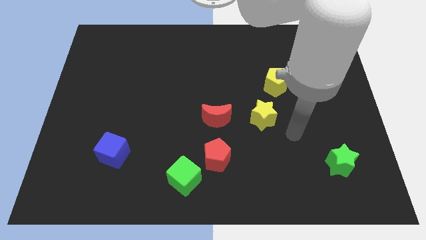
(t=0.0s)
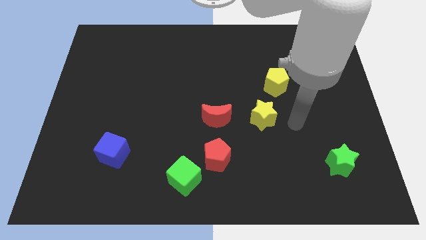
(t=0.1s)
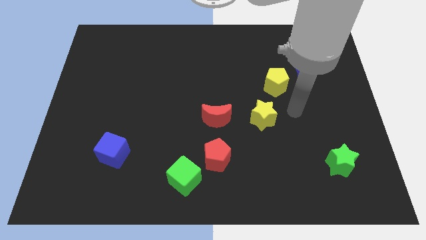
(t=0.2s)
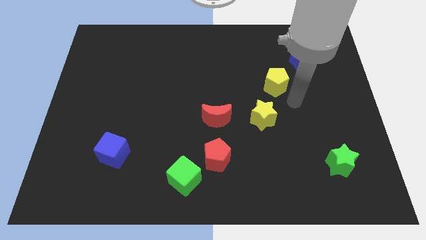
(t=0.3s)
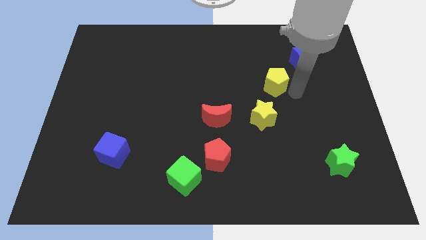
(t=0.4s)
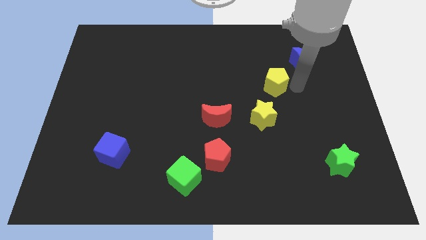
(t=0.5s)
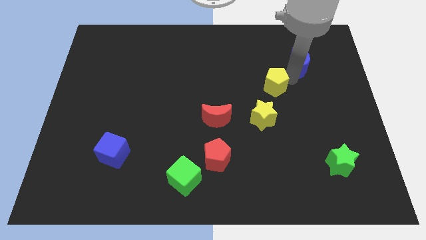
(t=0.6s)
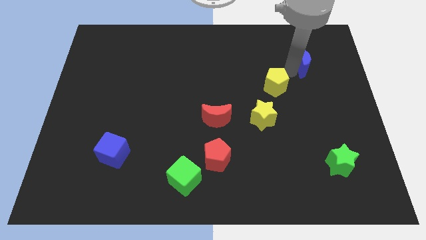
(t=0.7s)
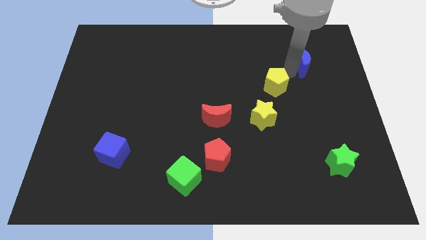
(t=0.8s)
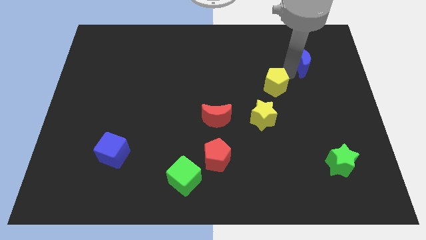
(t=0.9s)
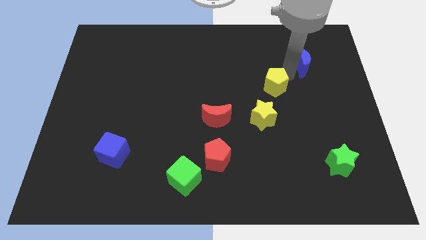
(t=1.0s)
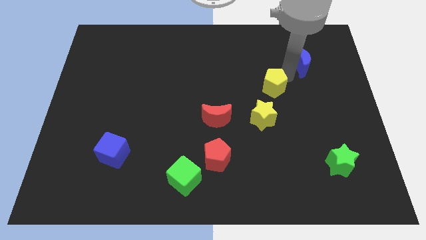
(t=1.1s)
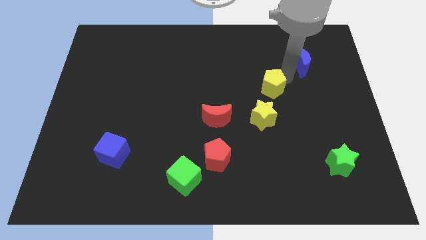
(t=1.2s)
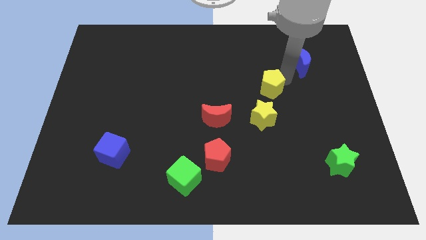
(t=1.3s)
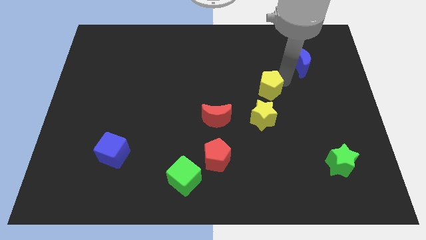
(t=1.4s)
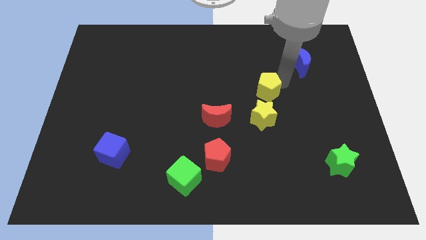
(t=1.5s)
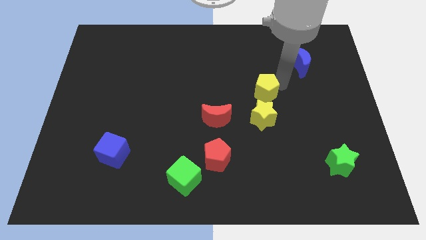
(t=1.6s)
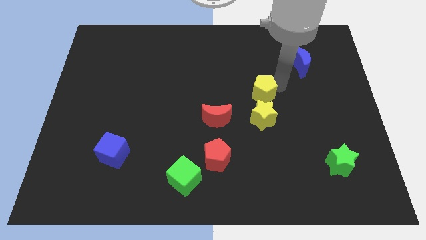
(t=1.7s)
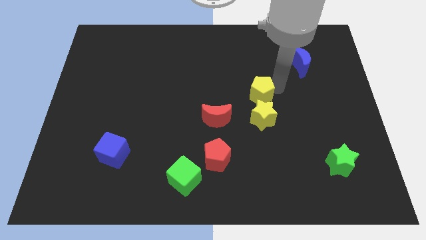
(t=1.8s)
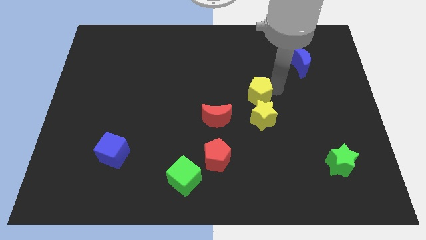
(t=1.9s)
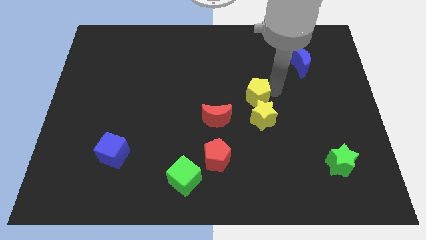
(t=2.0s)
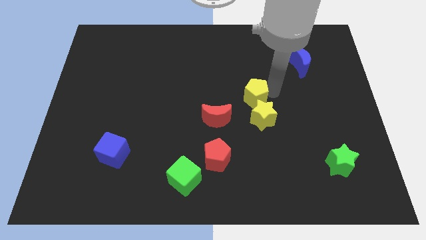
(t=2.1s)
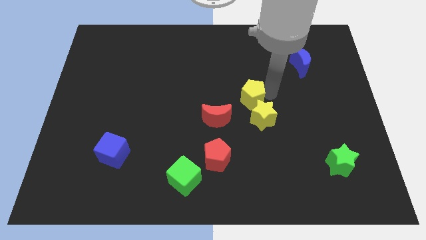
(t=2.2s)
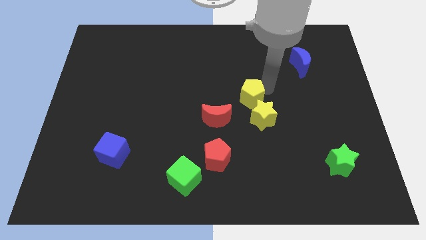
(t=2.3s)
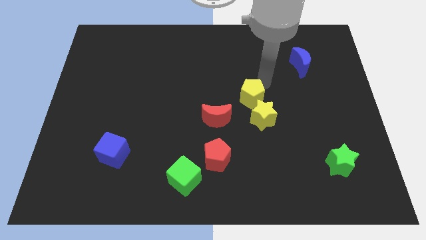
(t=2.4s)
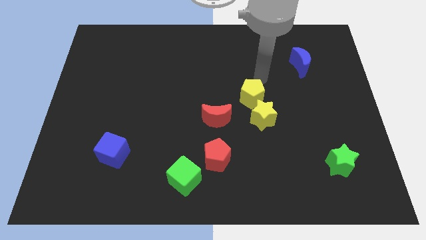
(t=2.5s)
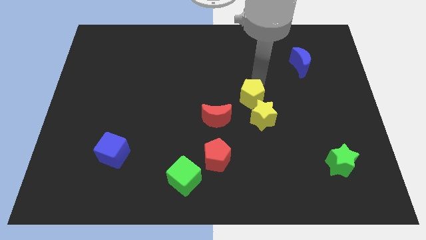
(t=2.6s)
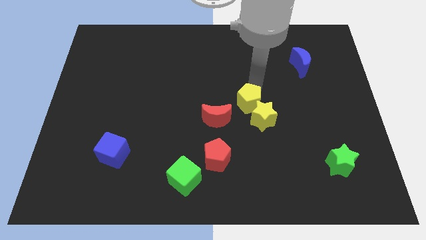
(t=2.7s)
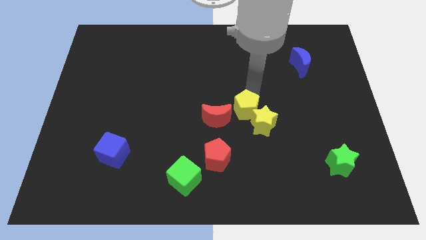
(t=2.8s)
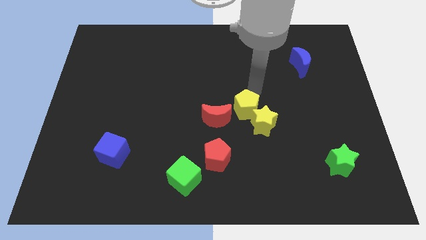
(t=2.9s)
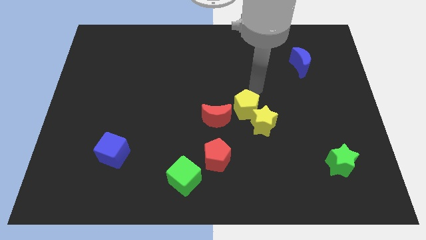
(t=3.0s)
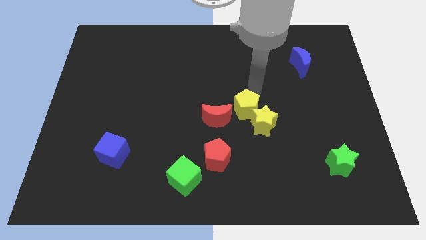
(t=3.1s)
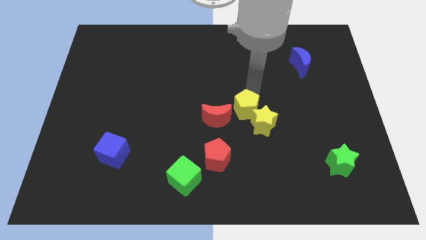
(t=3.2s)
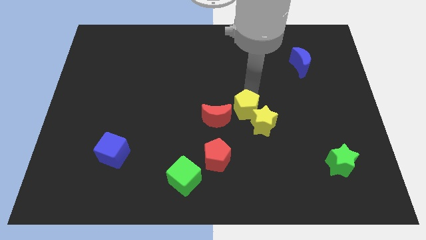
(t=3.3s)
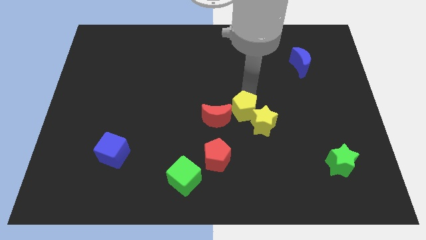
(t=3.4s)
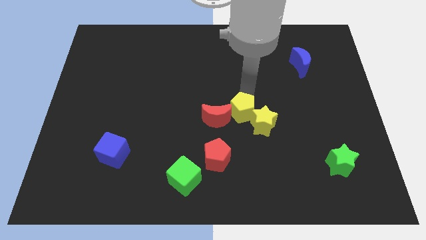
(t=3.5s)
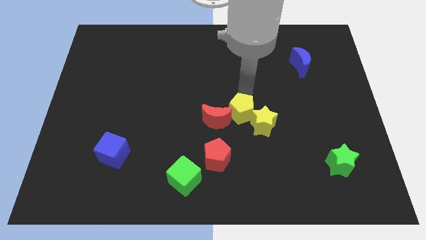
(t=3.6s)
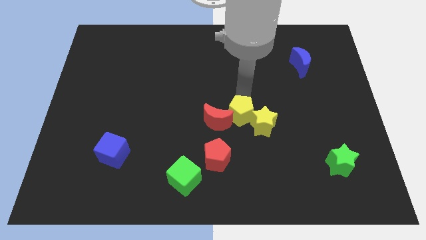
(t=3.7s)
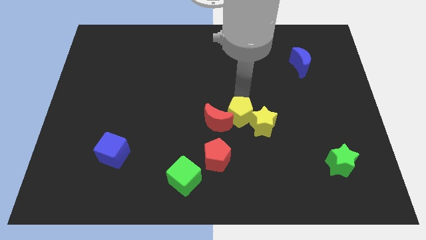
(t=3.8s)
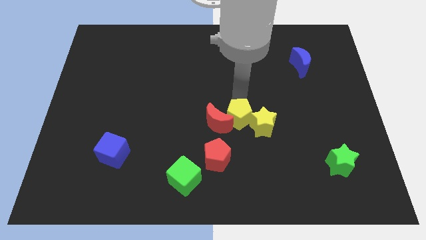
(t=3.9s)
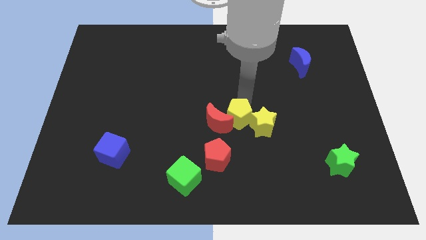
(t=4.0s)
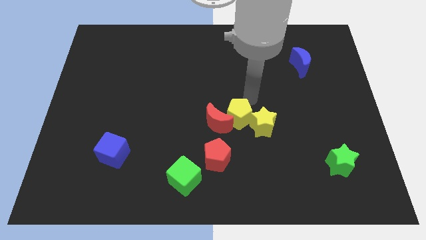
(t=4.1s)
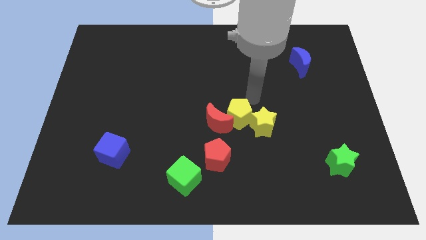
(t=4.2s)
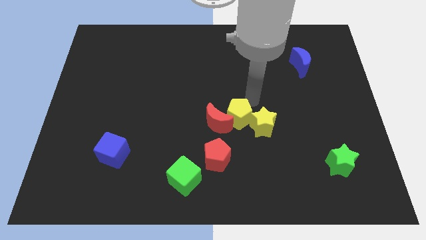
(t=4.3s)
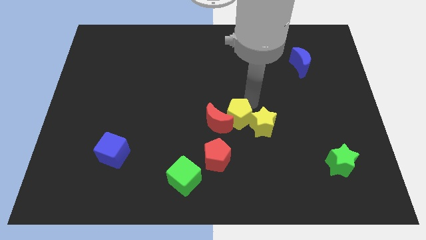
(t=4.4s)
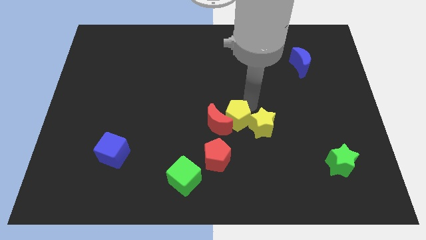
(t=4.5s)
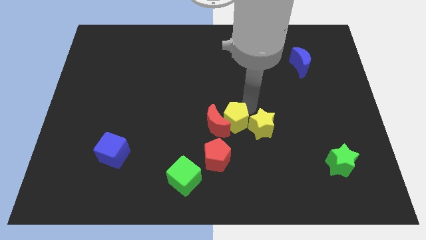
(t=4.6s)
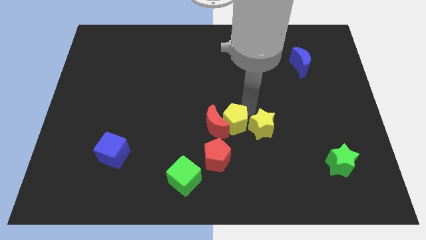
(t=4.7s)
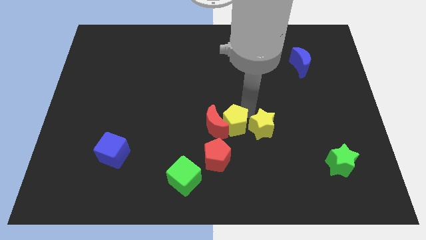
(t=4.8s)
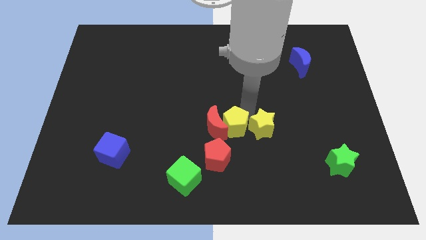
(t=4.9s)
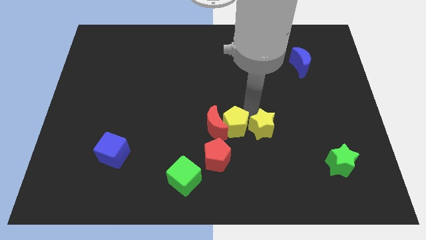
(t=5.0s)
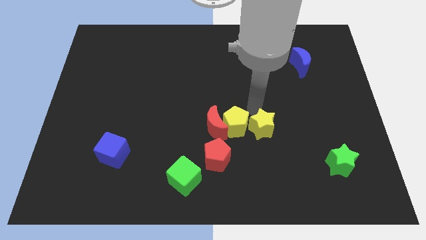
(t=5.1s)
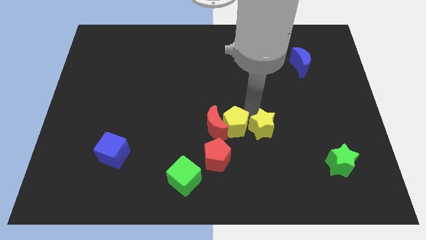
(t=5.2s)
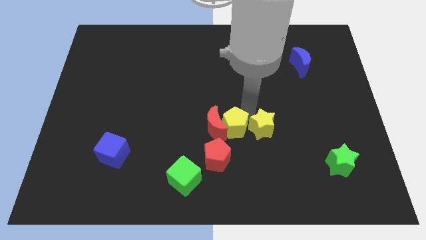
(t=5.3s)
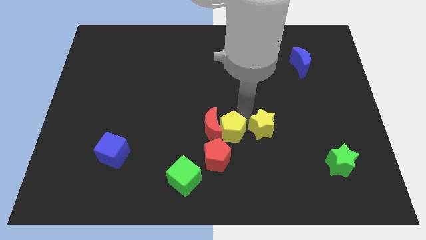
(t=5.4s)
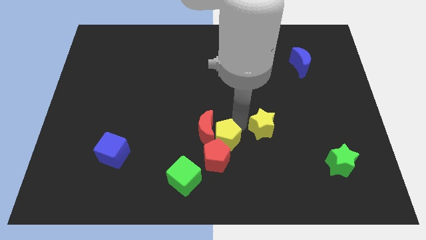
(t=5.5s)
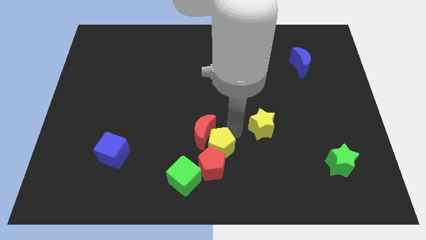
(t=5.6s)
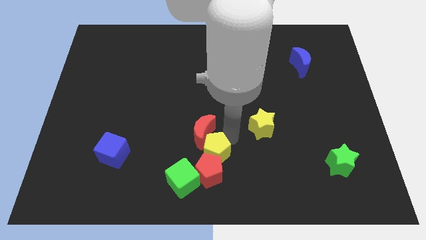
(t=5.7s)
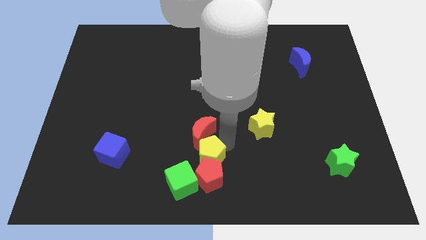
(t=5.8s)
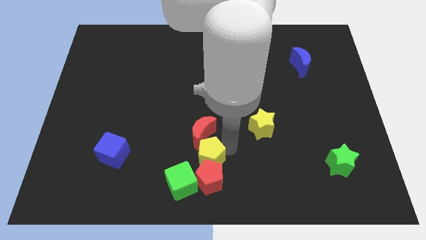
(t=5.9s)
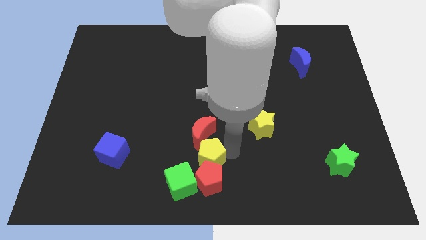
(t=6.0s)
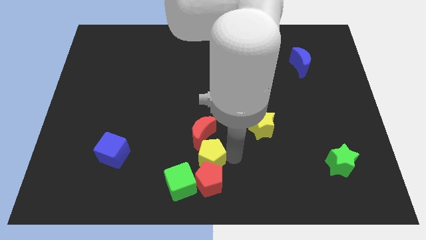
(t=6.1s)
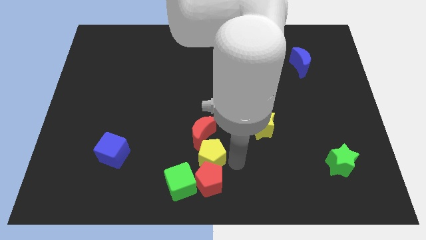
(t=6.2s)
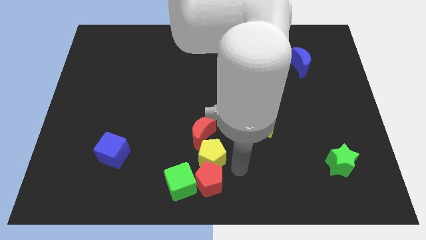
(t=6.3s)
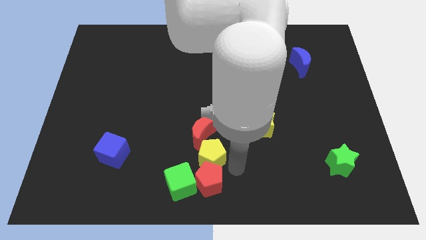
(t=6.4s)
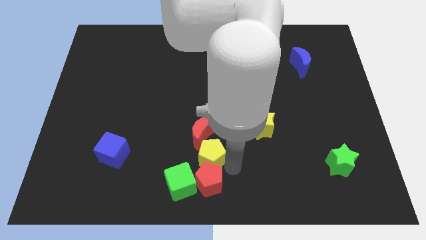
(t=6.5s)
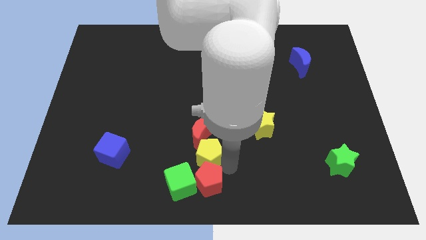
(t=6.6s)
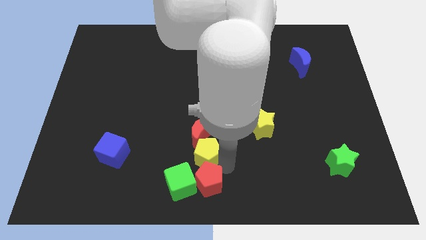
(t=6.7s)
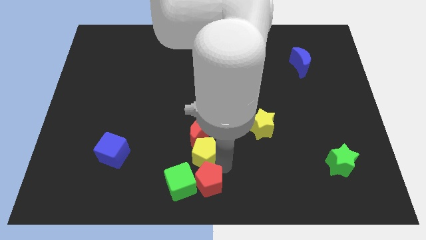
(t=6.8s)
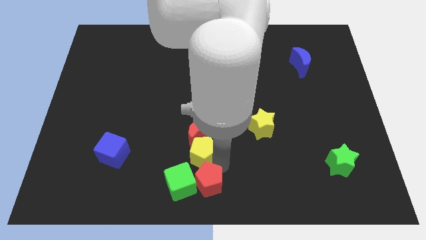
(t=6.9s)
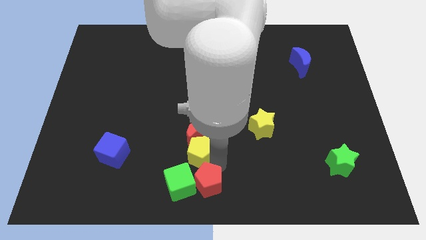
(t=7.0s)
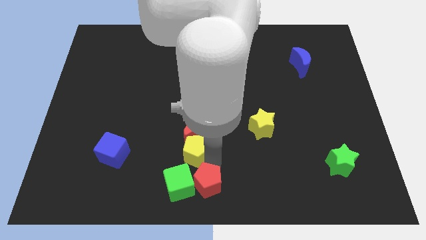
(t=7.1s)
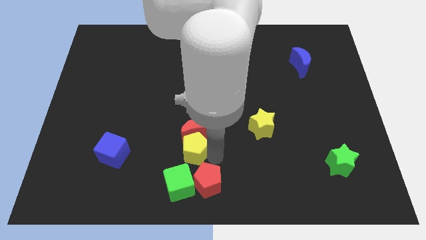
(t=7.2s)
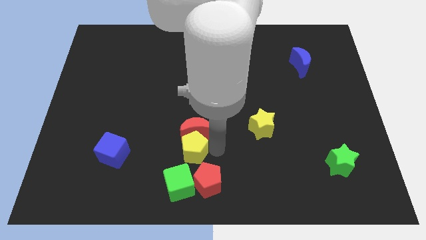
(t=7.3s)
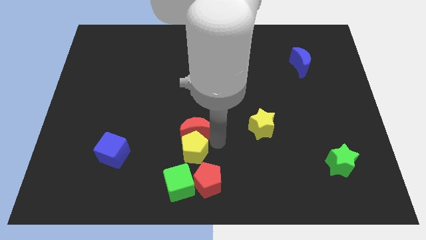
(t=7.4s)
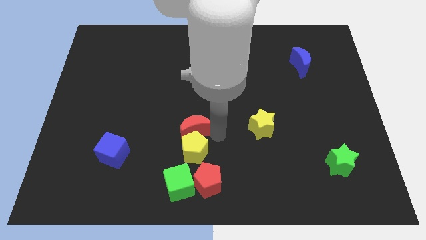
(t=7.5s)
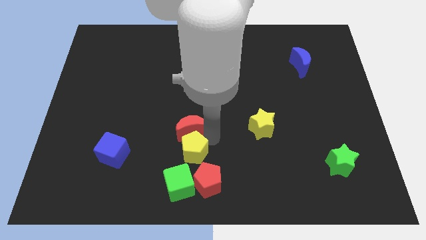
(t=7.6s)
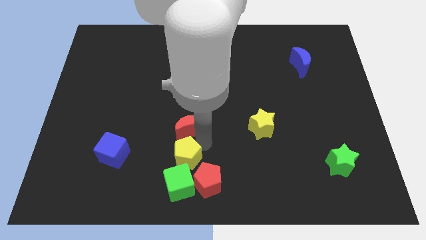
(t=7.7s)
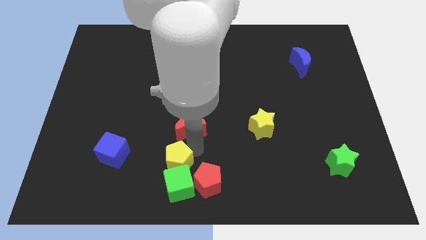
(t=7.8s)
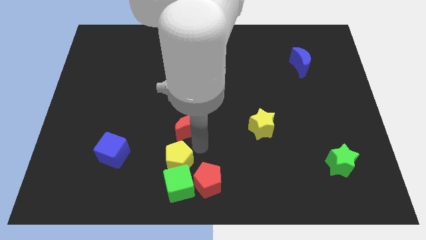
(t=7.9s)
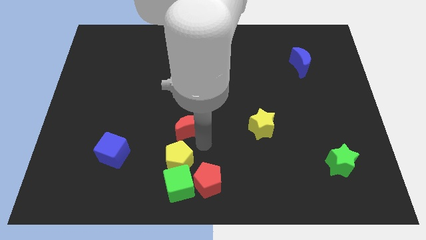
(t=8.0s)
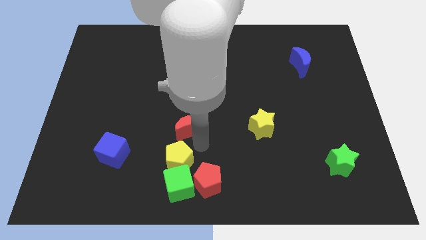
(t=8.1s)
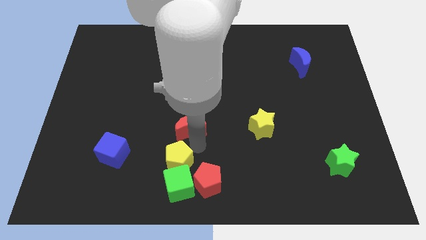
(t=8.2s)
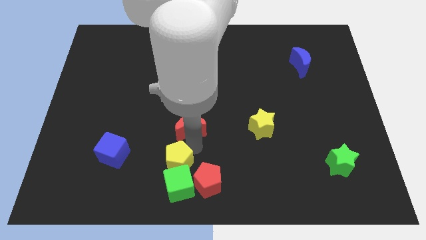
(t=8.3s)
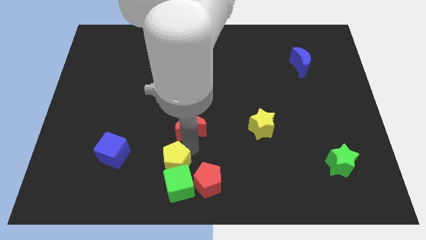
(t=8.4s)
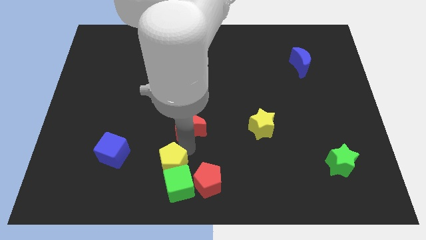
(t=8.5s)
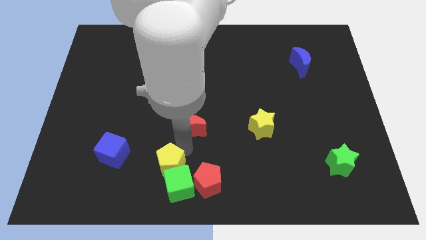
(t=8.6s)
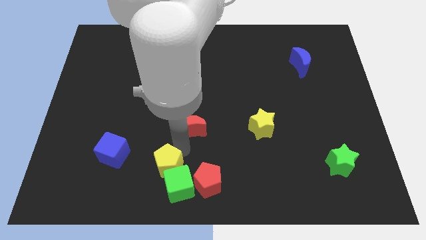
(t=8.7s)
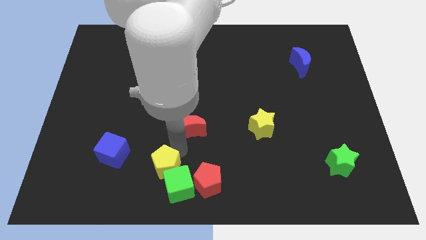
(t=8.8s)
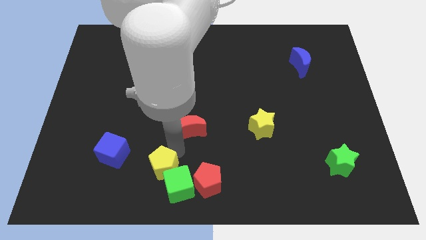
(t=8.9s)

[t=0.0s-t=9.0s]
put the yellow pentagon to the left side of the green cube
